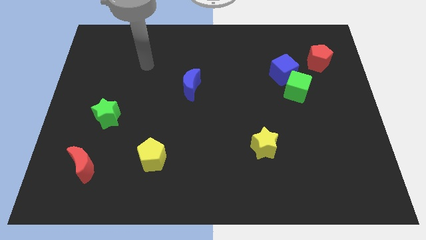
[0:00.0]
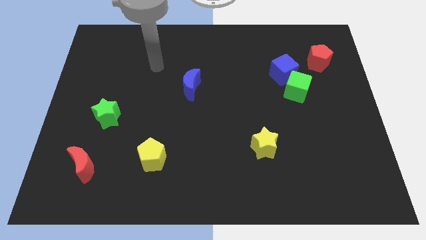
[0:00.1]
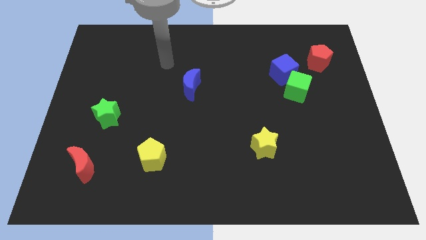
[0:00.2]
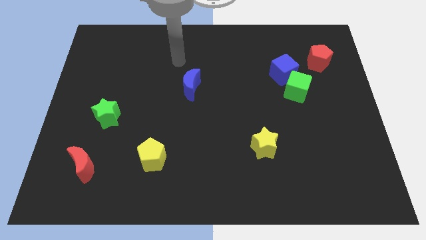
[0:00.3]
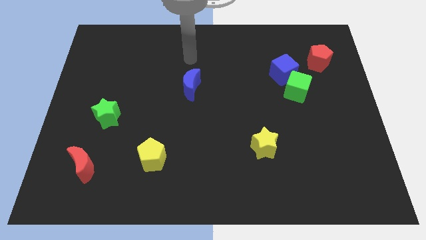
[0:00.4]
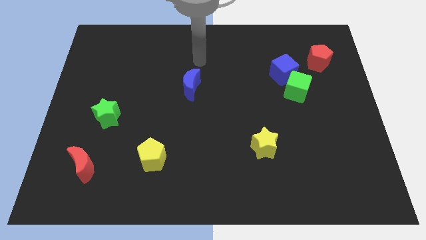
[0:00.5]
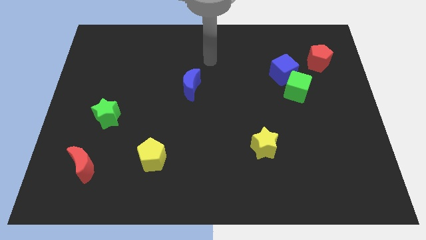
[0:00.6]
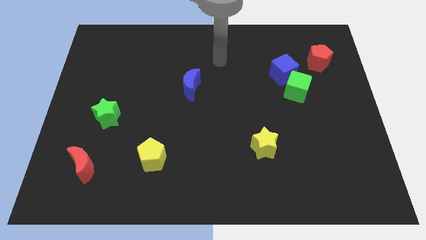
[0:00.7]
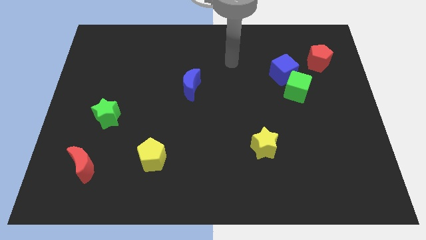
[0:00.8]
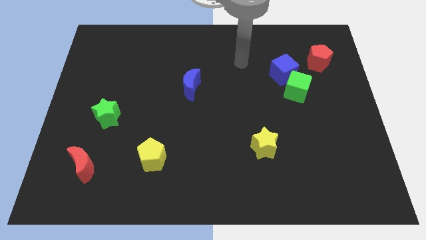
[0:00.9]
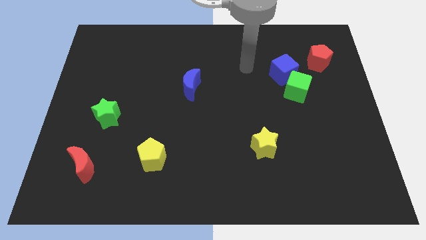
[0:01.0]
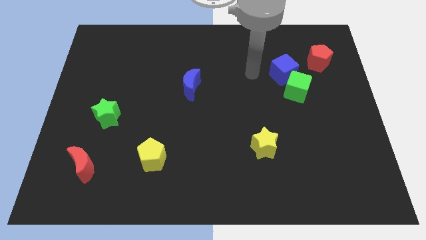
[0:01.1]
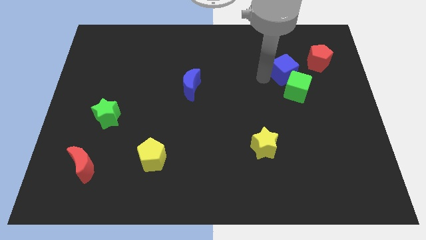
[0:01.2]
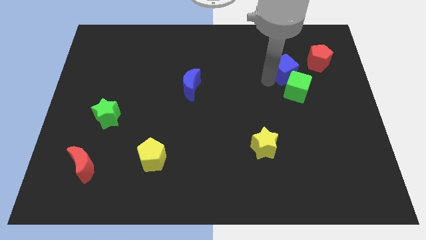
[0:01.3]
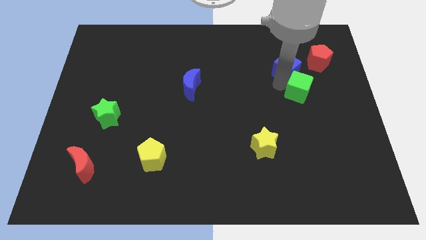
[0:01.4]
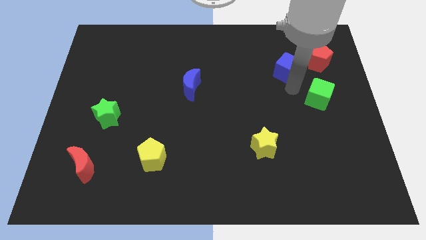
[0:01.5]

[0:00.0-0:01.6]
separate the blue cube from the green cube

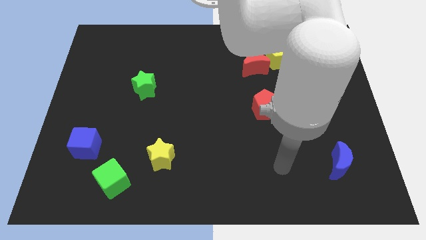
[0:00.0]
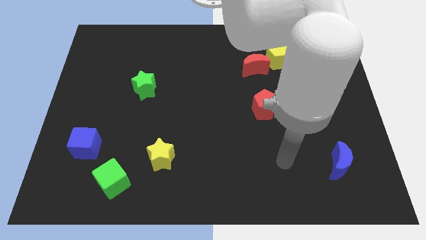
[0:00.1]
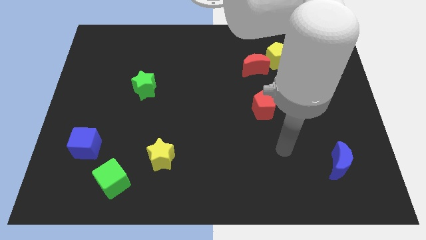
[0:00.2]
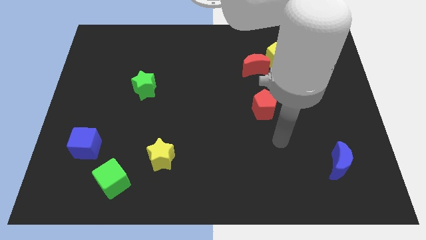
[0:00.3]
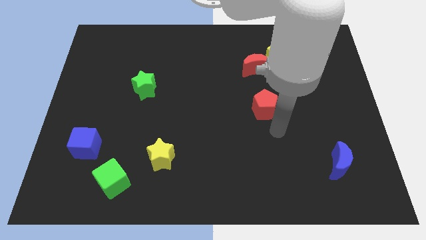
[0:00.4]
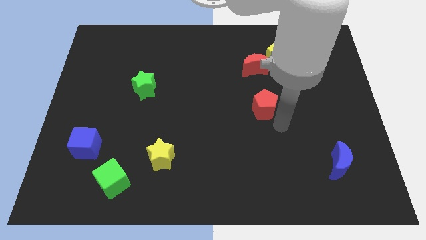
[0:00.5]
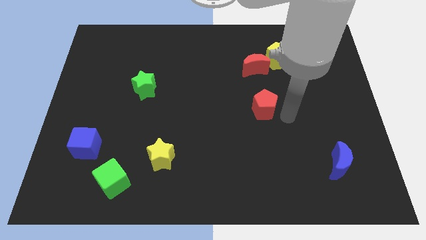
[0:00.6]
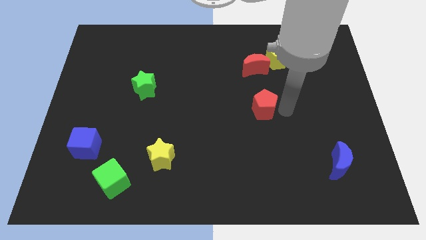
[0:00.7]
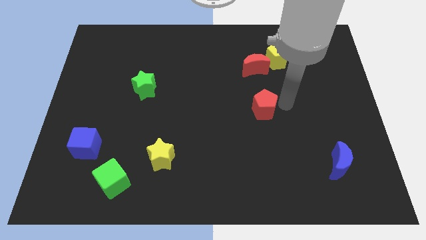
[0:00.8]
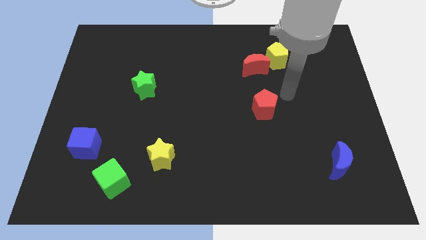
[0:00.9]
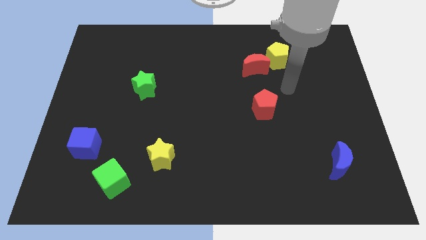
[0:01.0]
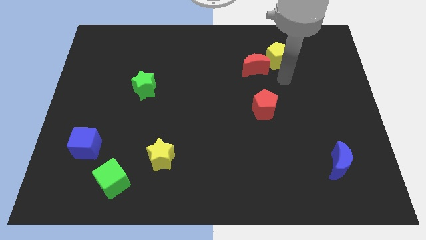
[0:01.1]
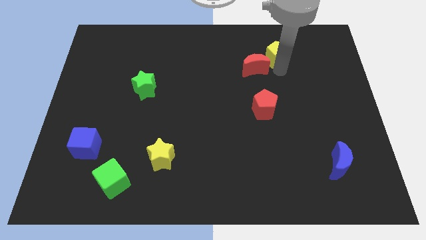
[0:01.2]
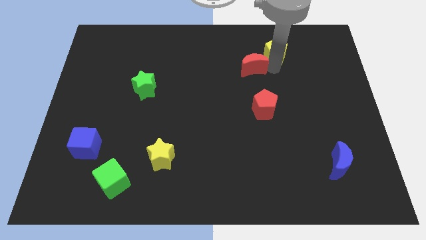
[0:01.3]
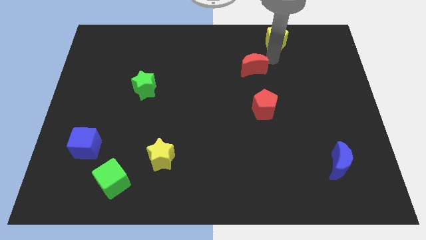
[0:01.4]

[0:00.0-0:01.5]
move the red moon away from the yellow pentagon

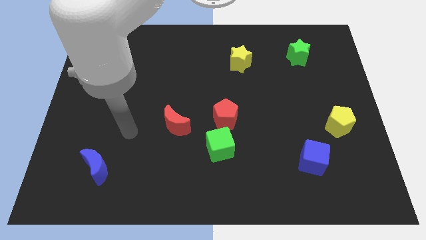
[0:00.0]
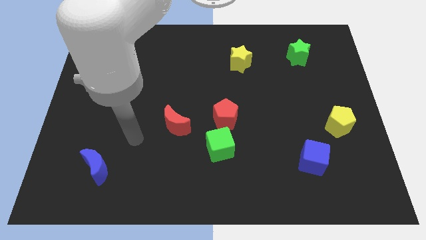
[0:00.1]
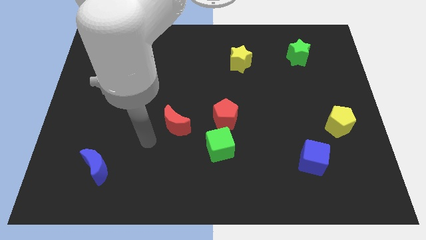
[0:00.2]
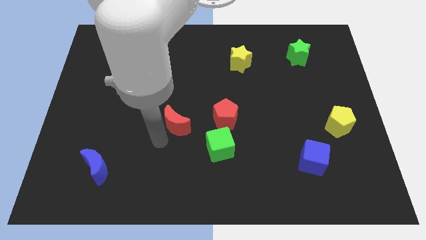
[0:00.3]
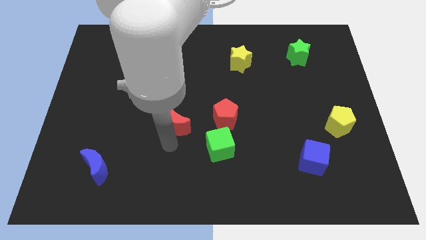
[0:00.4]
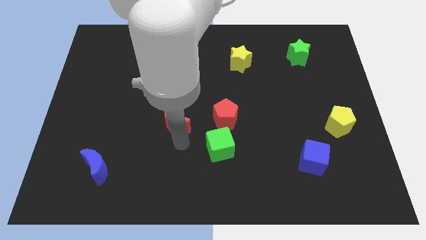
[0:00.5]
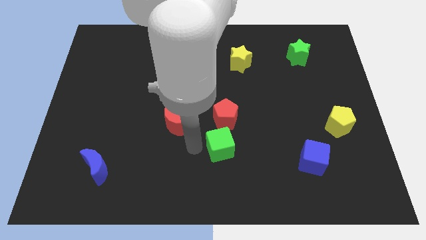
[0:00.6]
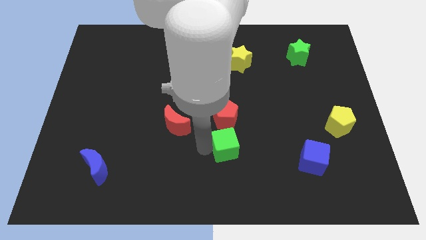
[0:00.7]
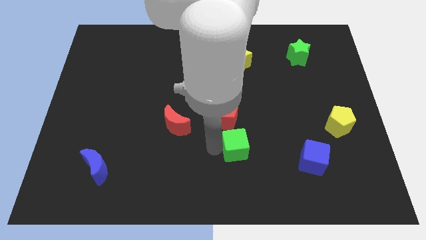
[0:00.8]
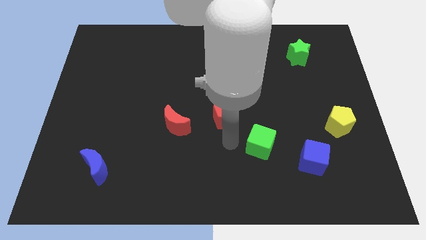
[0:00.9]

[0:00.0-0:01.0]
move the red pentagon away from the green cube

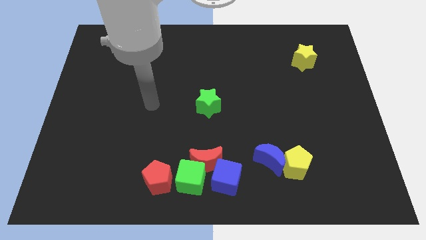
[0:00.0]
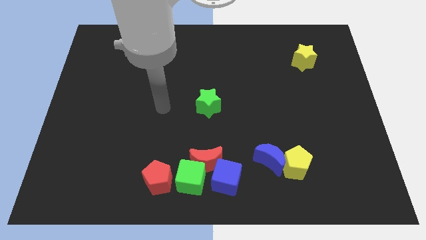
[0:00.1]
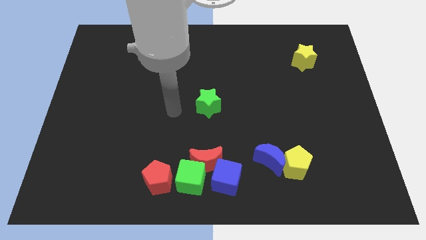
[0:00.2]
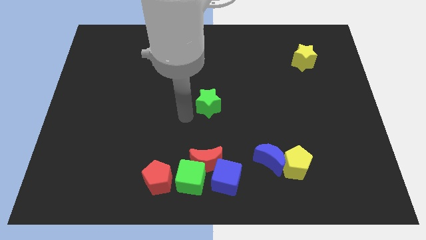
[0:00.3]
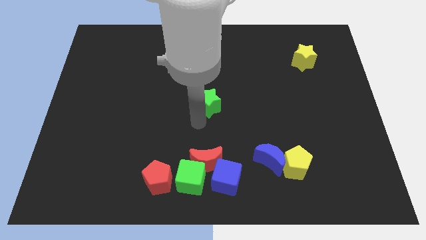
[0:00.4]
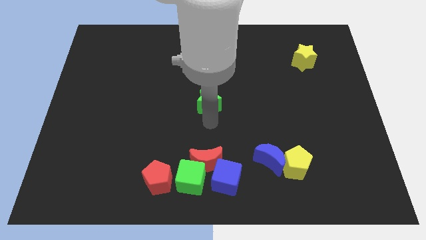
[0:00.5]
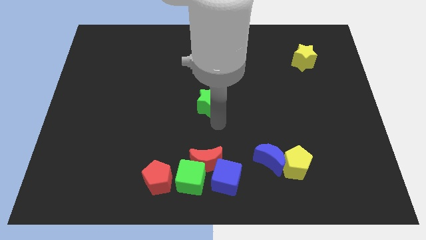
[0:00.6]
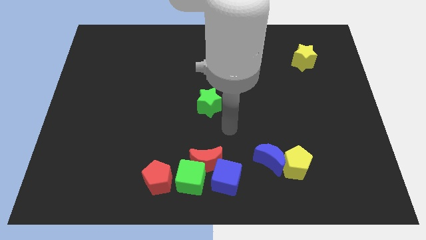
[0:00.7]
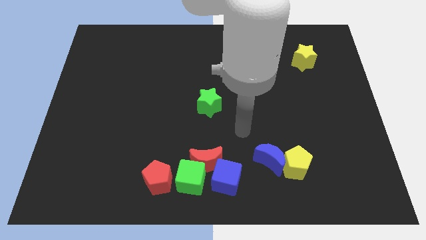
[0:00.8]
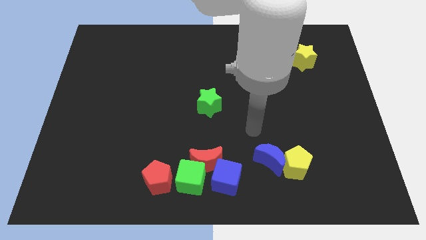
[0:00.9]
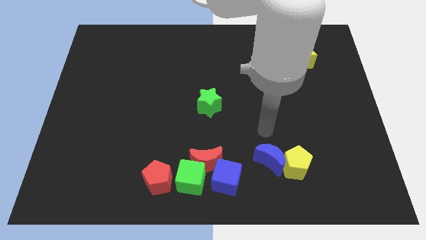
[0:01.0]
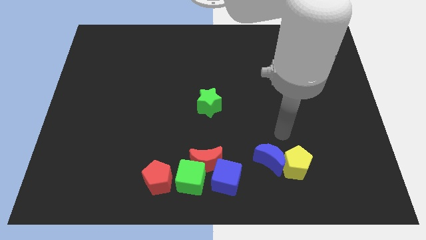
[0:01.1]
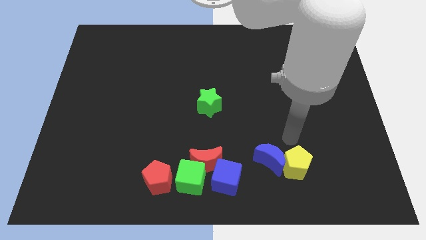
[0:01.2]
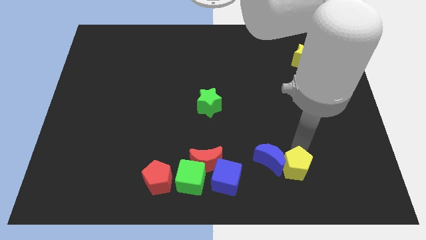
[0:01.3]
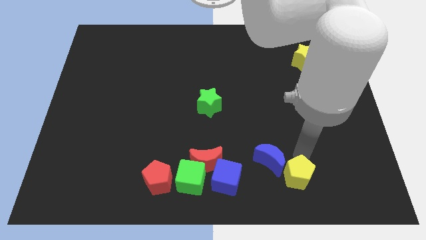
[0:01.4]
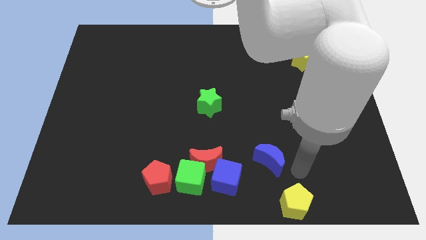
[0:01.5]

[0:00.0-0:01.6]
move the blue moon away from the yellow pentagon

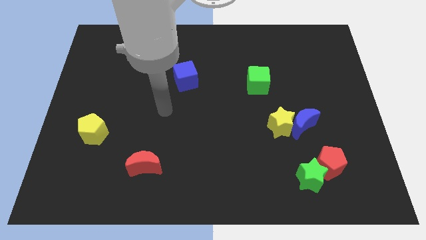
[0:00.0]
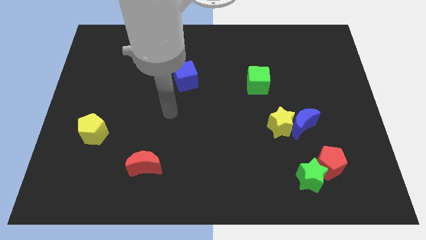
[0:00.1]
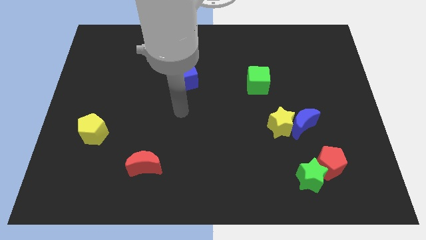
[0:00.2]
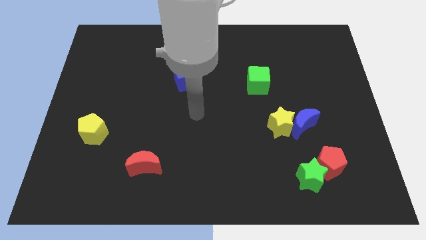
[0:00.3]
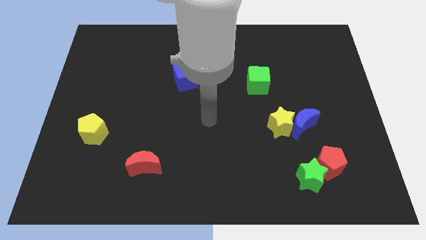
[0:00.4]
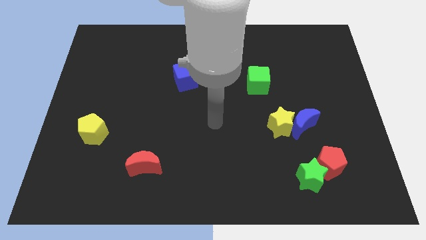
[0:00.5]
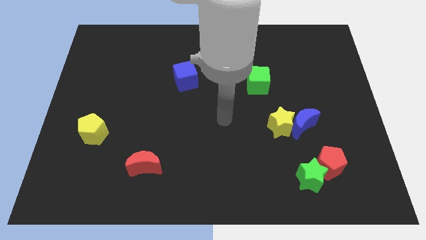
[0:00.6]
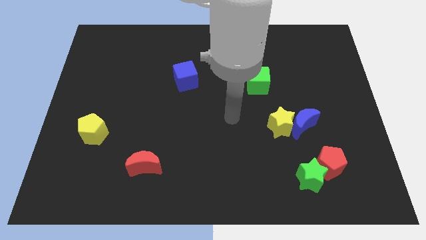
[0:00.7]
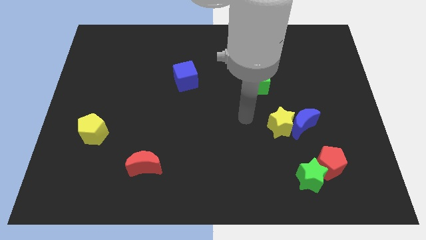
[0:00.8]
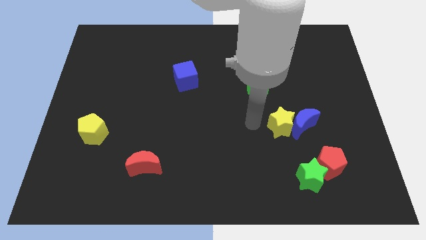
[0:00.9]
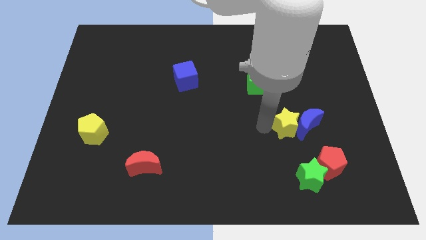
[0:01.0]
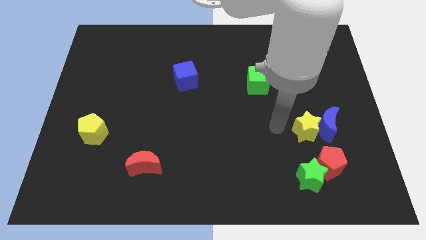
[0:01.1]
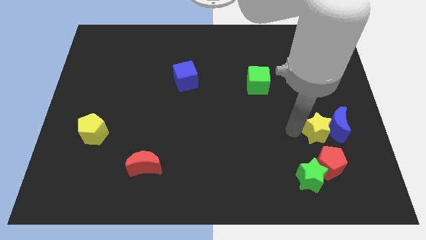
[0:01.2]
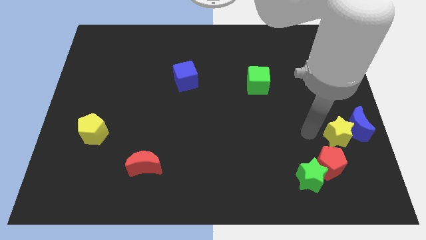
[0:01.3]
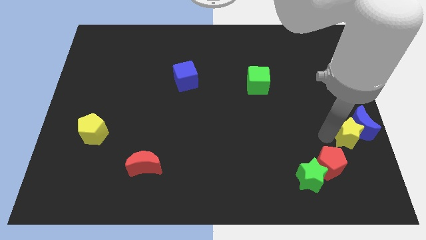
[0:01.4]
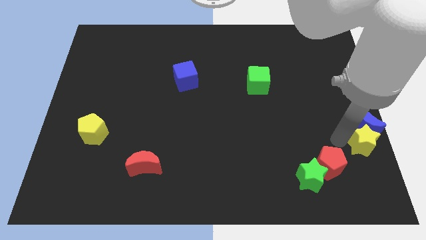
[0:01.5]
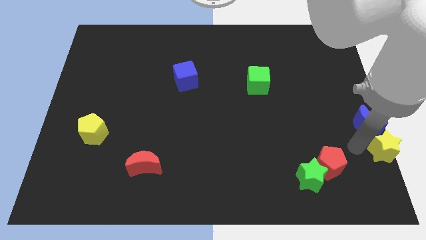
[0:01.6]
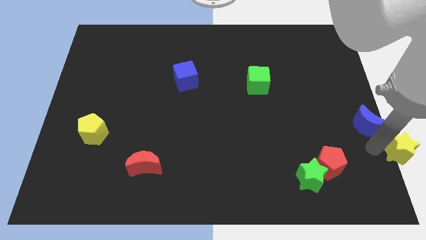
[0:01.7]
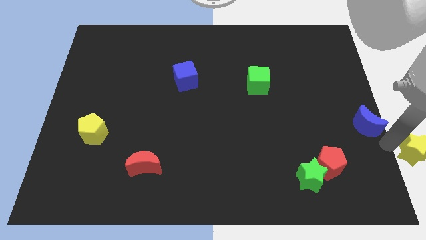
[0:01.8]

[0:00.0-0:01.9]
pull the blue moon apart from the yellow star

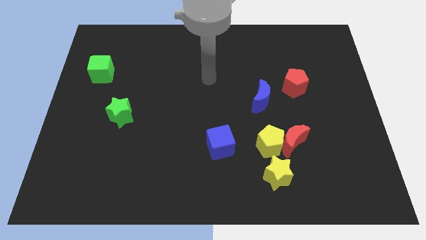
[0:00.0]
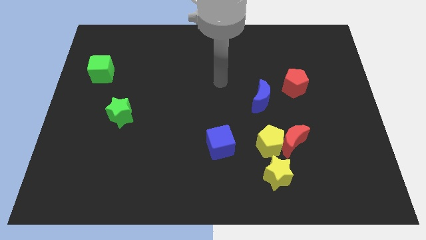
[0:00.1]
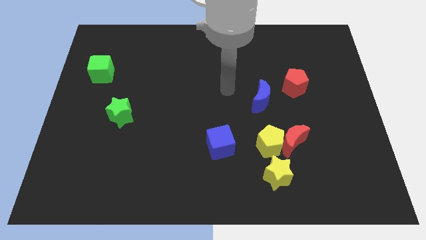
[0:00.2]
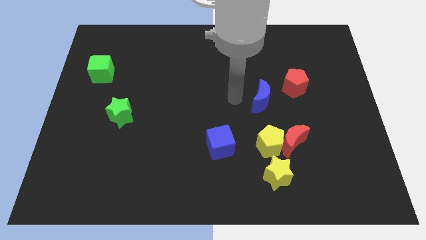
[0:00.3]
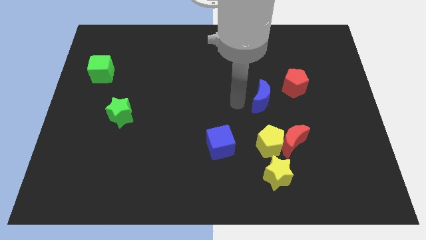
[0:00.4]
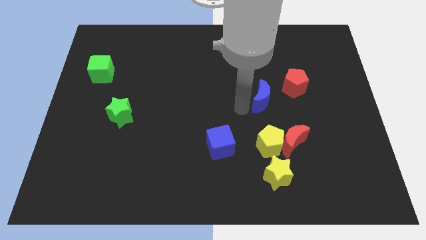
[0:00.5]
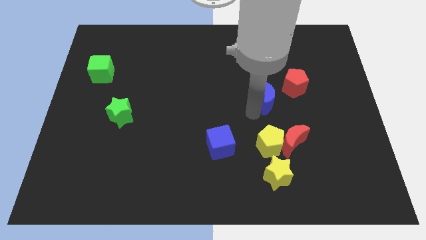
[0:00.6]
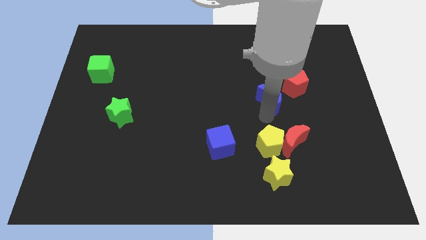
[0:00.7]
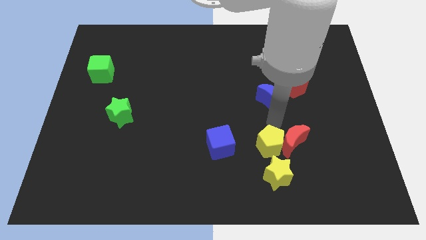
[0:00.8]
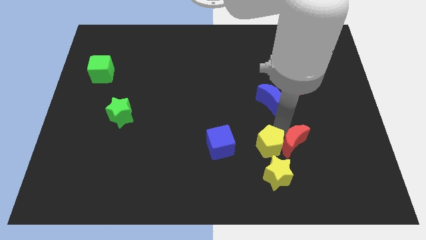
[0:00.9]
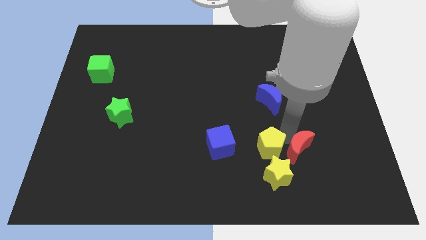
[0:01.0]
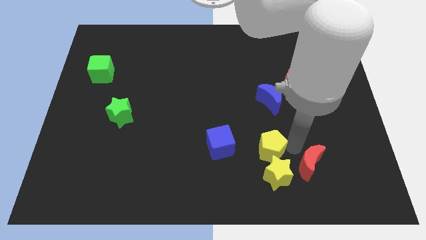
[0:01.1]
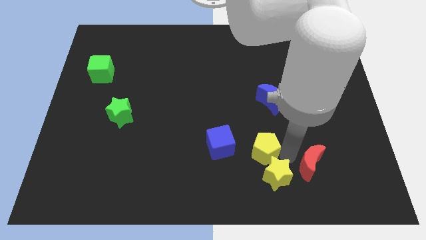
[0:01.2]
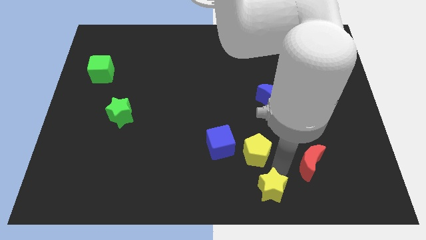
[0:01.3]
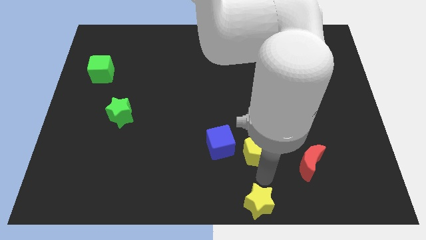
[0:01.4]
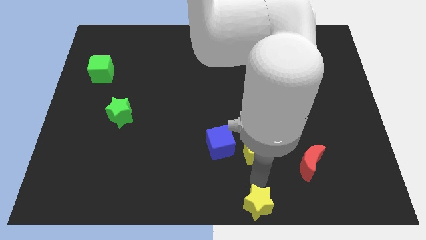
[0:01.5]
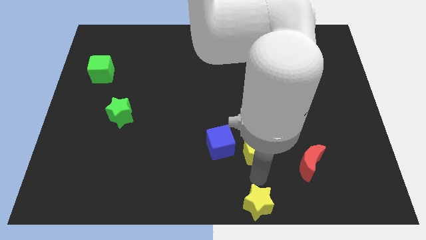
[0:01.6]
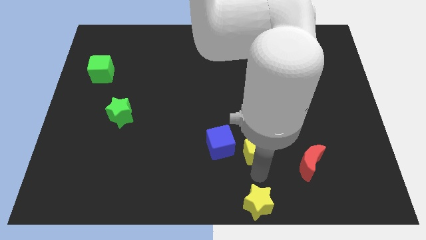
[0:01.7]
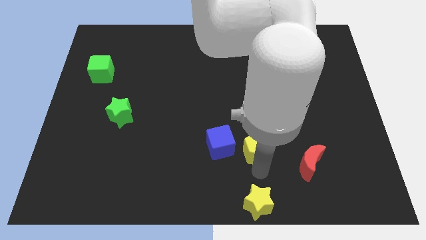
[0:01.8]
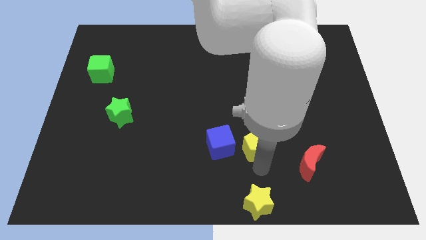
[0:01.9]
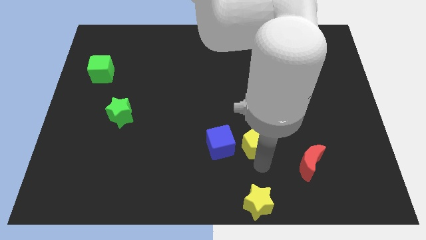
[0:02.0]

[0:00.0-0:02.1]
separate the yellow pentagon from the red moon and yellow star
